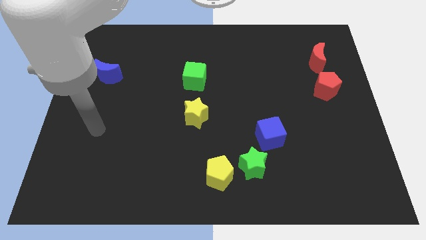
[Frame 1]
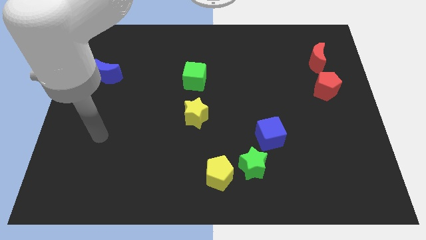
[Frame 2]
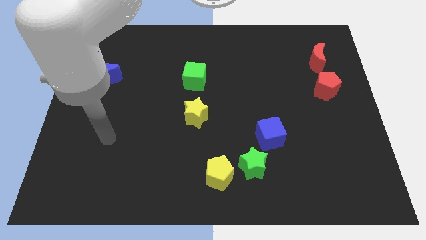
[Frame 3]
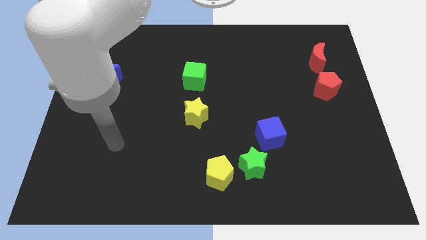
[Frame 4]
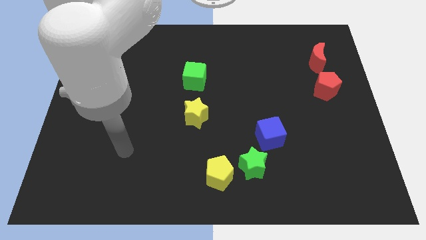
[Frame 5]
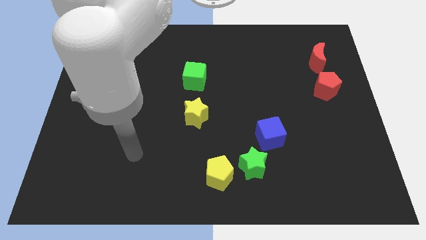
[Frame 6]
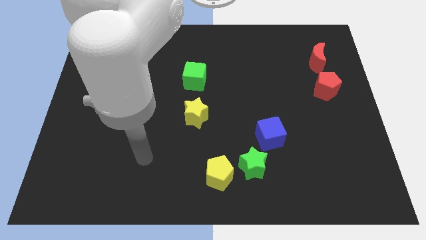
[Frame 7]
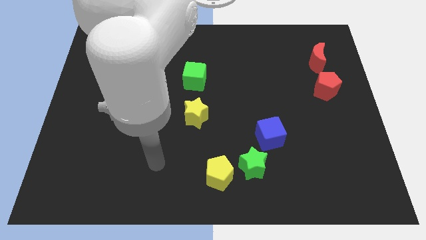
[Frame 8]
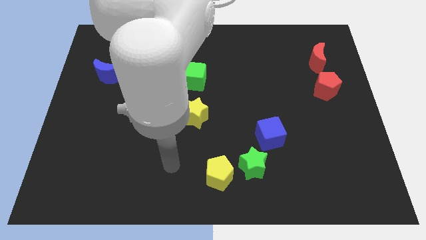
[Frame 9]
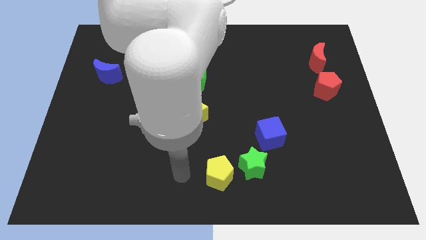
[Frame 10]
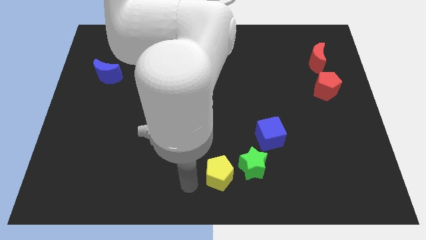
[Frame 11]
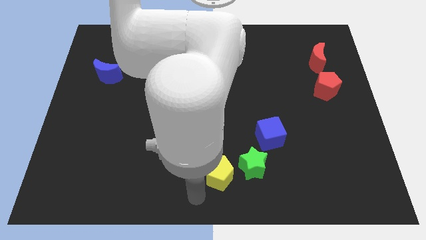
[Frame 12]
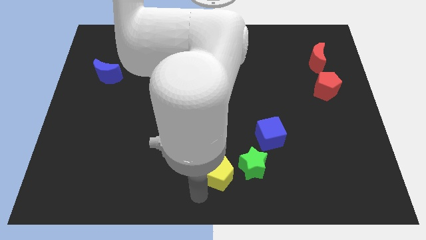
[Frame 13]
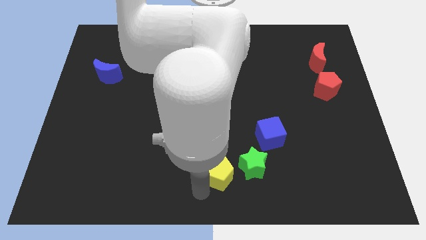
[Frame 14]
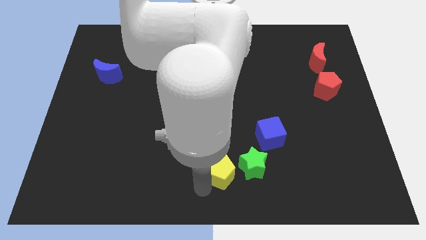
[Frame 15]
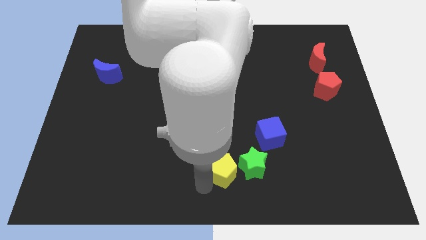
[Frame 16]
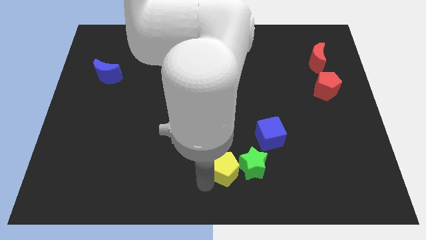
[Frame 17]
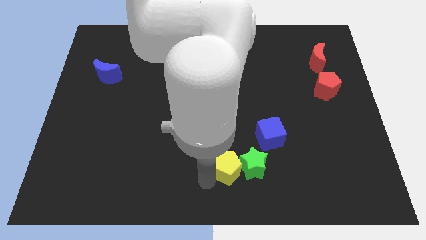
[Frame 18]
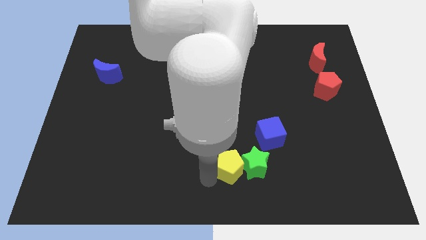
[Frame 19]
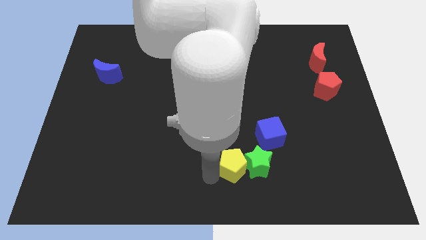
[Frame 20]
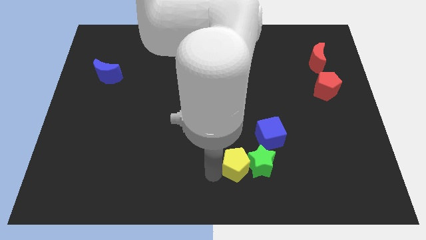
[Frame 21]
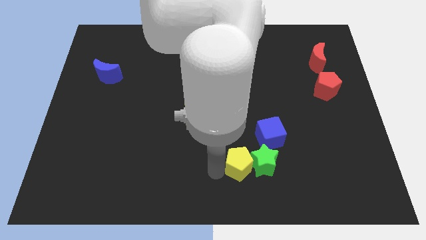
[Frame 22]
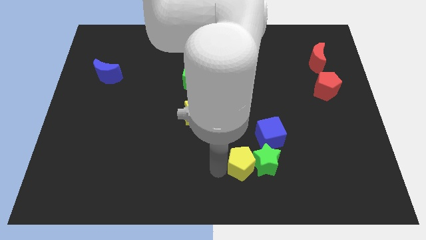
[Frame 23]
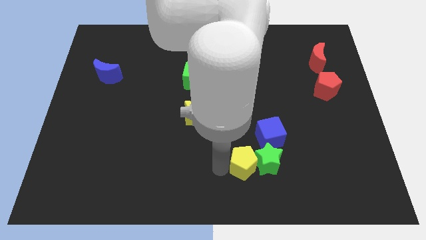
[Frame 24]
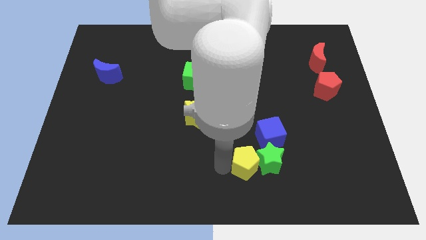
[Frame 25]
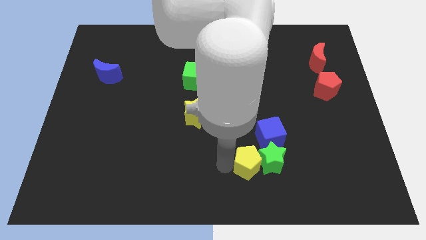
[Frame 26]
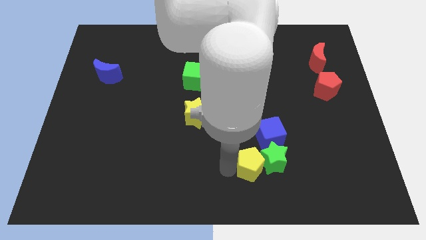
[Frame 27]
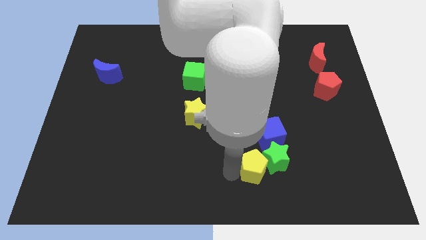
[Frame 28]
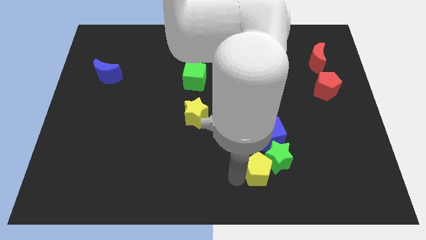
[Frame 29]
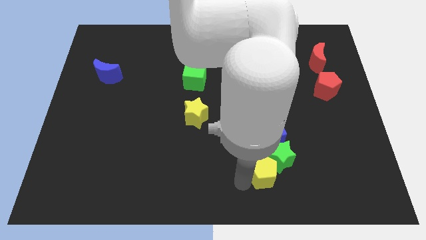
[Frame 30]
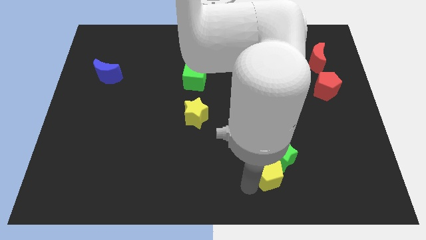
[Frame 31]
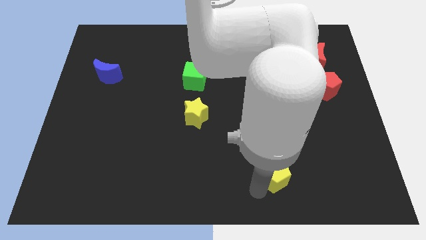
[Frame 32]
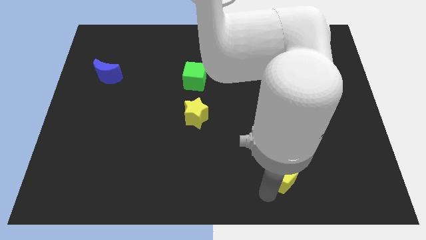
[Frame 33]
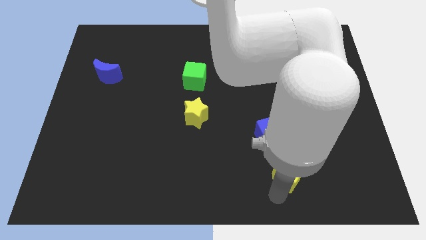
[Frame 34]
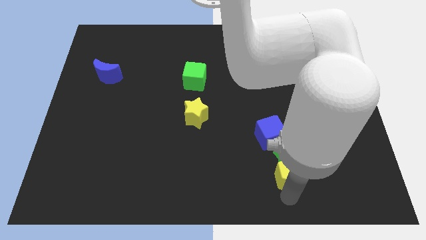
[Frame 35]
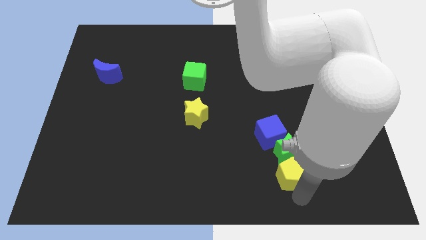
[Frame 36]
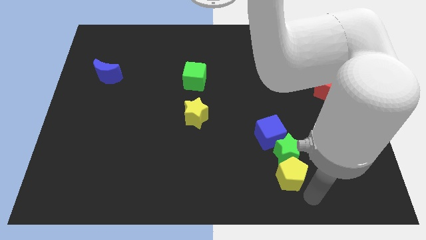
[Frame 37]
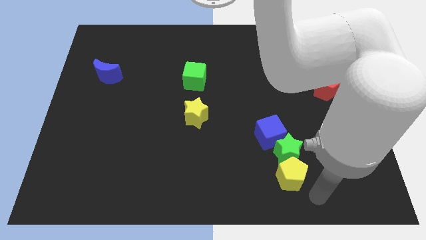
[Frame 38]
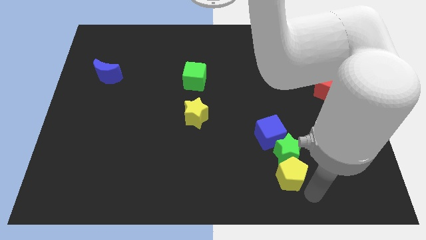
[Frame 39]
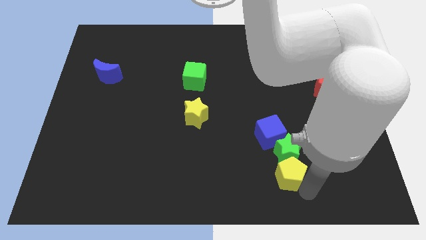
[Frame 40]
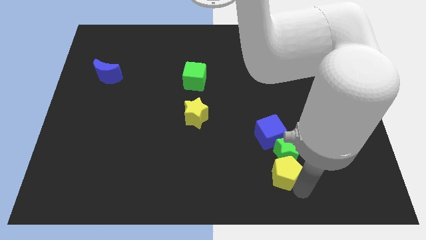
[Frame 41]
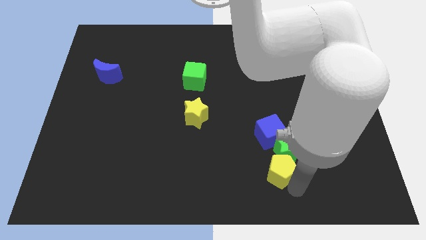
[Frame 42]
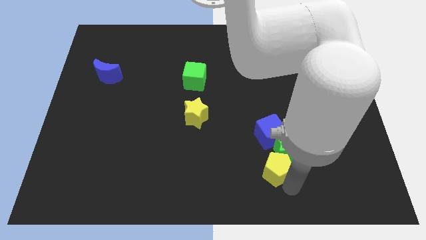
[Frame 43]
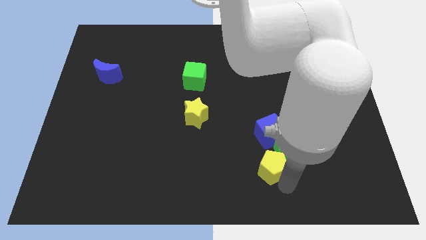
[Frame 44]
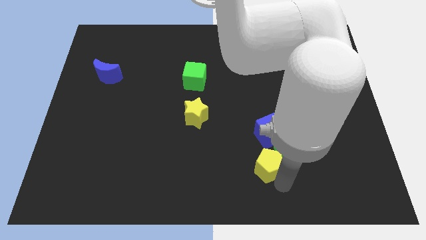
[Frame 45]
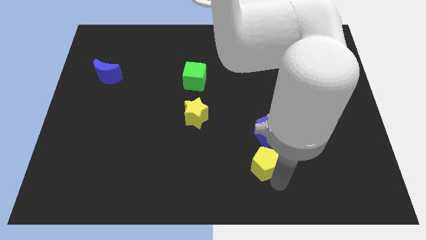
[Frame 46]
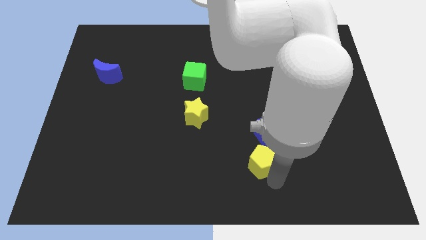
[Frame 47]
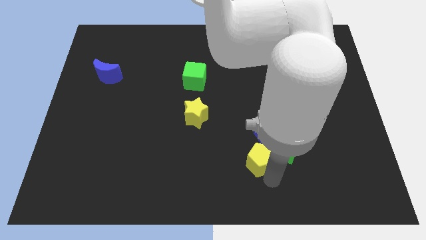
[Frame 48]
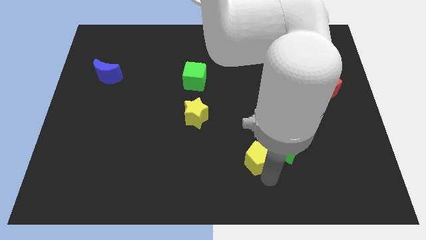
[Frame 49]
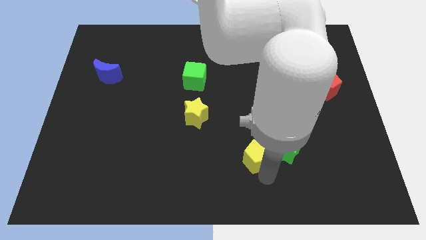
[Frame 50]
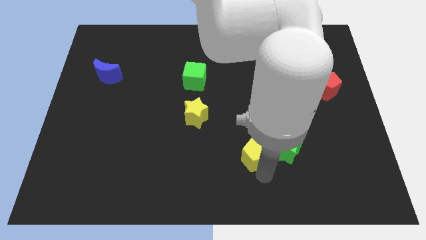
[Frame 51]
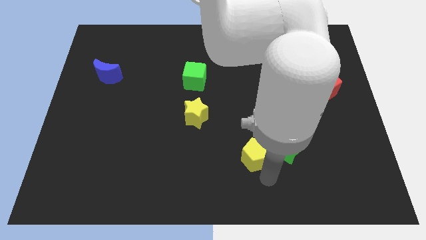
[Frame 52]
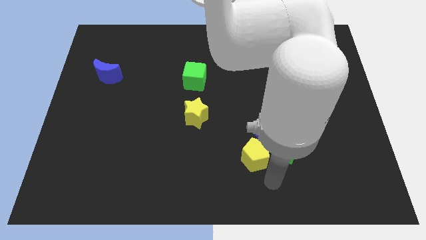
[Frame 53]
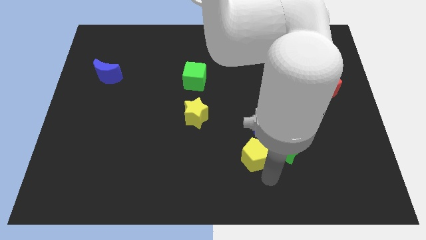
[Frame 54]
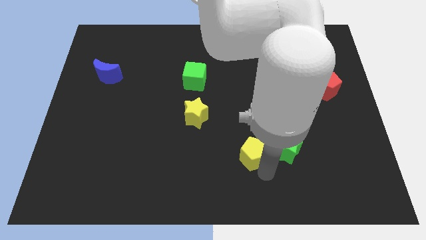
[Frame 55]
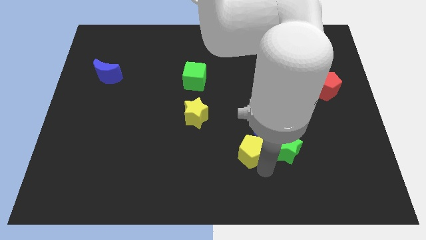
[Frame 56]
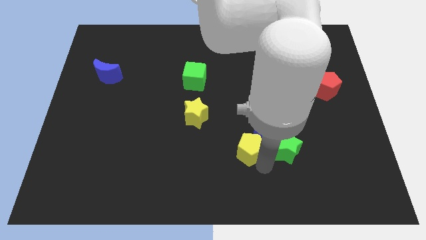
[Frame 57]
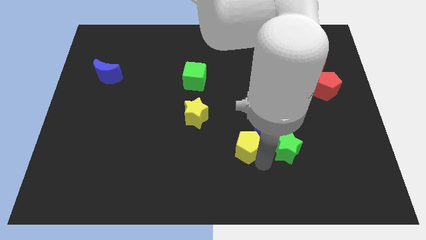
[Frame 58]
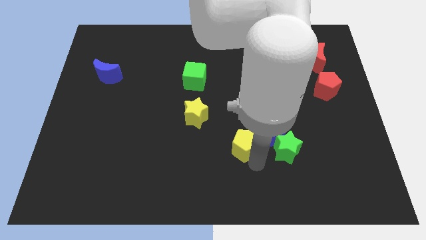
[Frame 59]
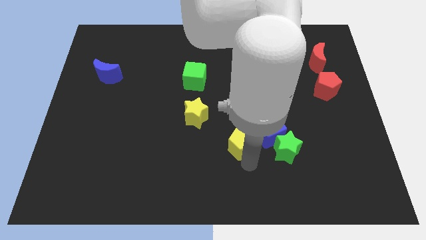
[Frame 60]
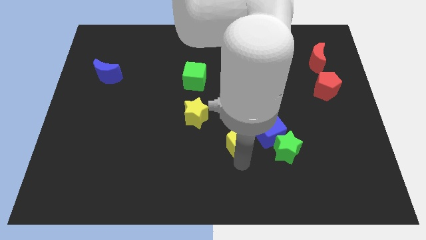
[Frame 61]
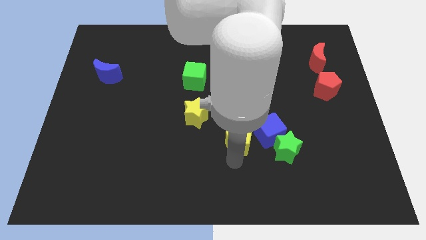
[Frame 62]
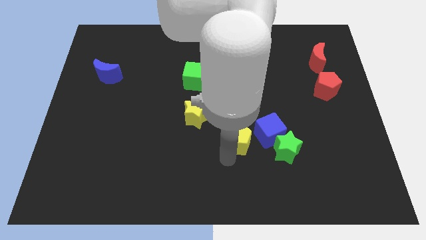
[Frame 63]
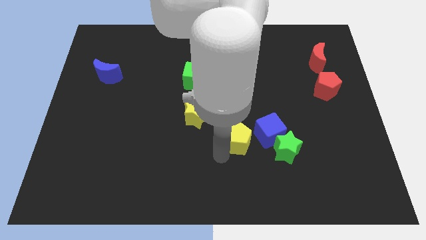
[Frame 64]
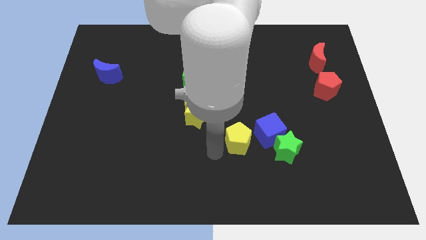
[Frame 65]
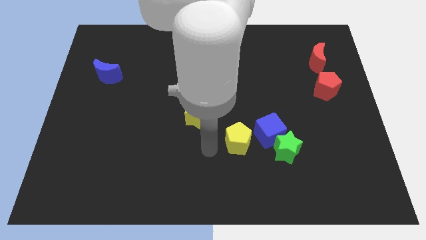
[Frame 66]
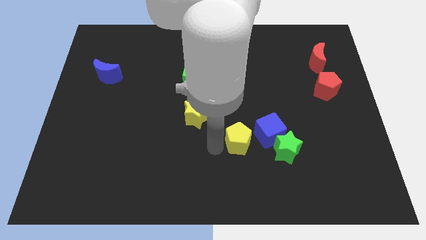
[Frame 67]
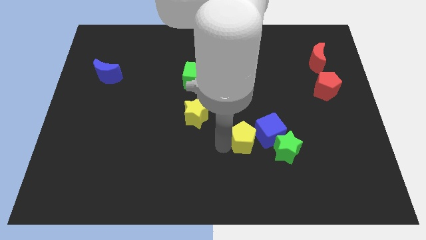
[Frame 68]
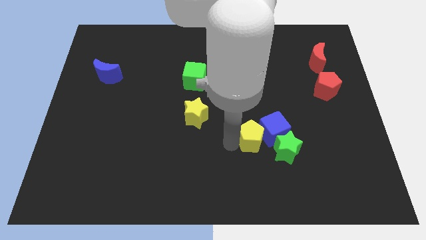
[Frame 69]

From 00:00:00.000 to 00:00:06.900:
slide the yellow pentagon next to the blue cube
